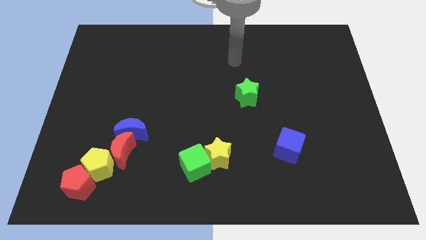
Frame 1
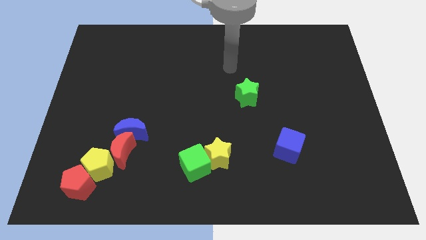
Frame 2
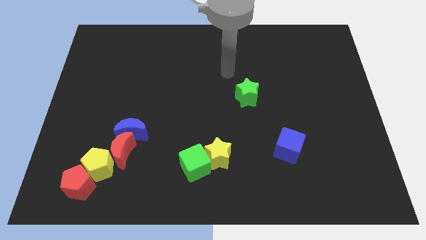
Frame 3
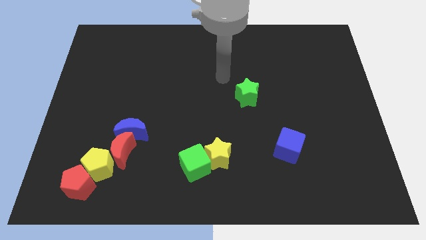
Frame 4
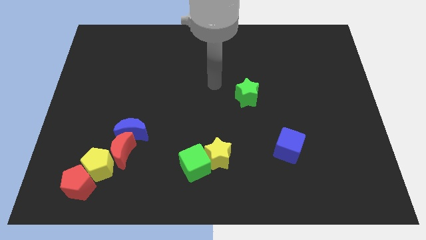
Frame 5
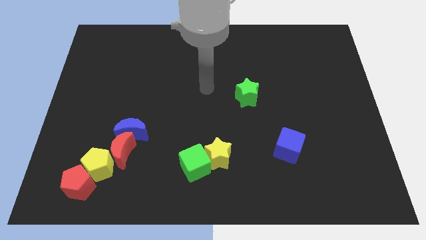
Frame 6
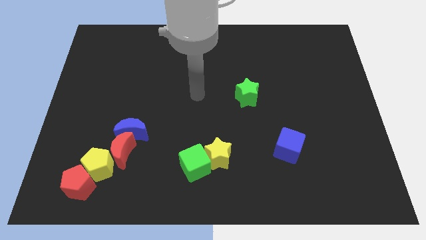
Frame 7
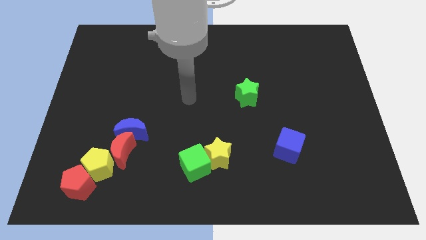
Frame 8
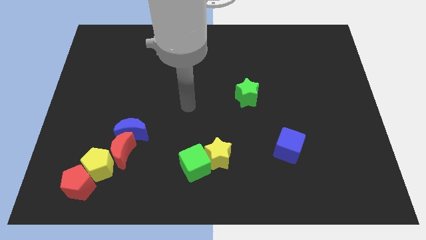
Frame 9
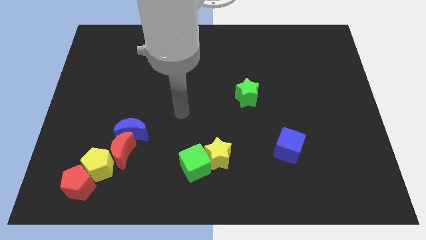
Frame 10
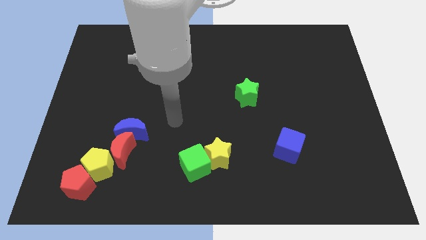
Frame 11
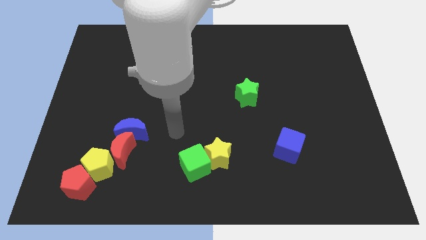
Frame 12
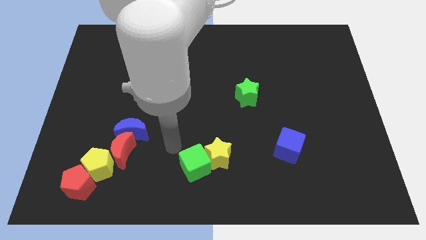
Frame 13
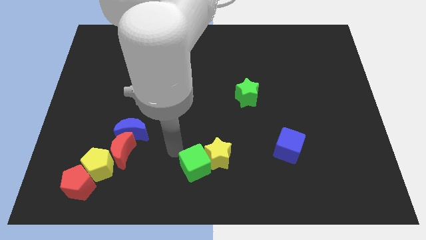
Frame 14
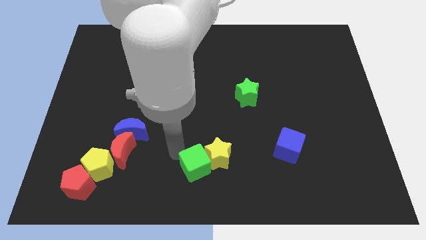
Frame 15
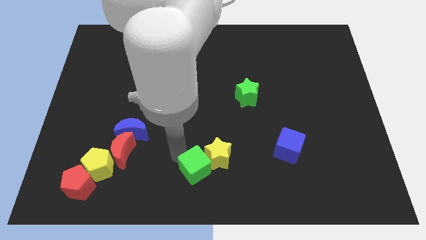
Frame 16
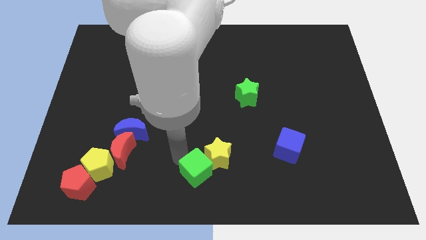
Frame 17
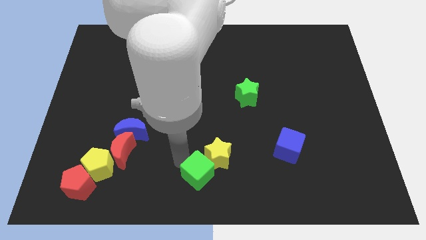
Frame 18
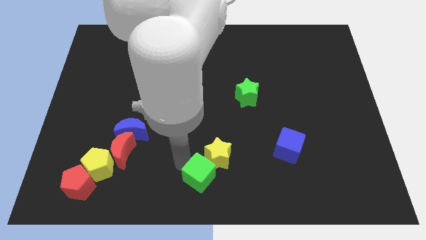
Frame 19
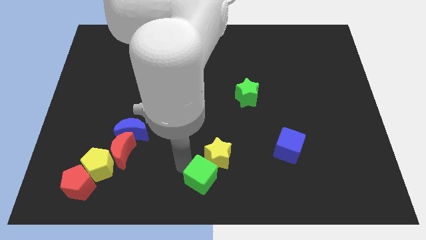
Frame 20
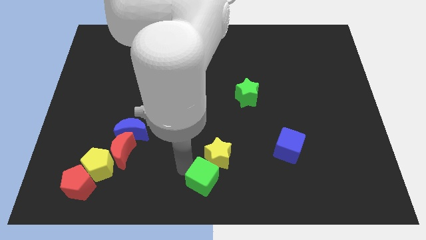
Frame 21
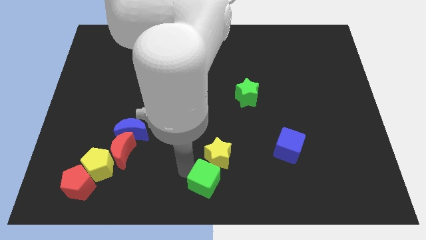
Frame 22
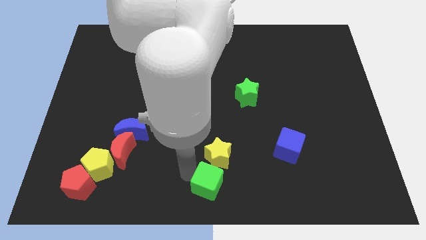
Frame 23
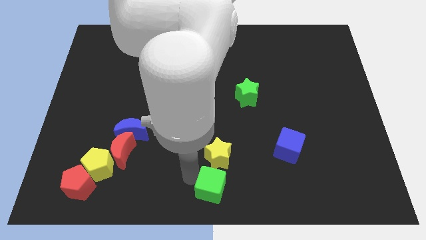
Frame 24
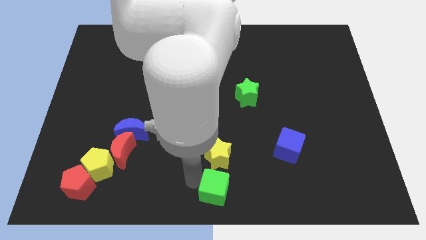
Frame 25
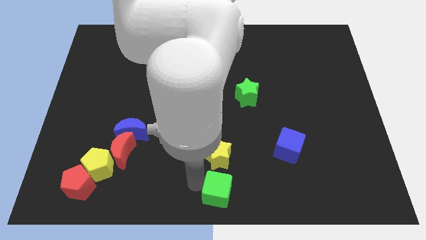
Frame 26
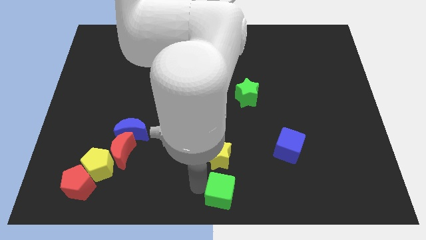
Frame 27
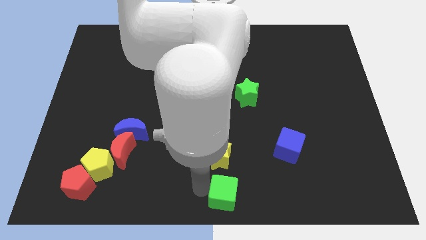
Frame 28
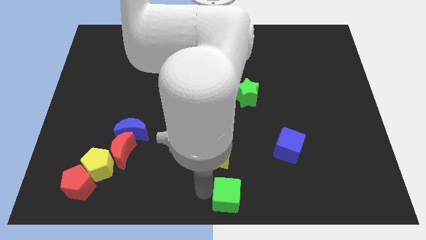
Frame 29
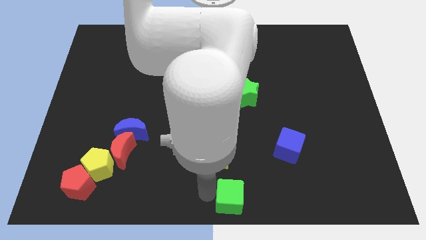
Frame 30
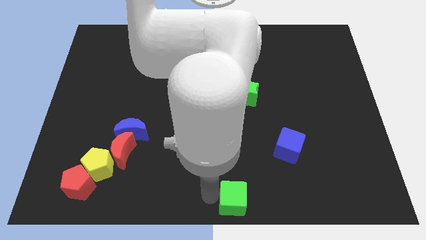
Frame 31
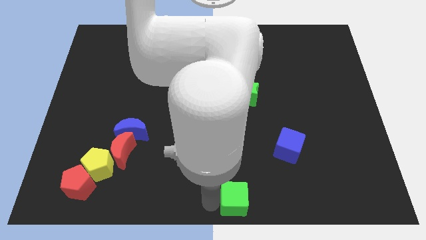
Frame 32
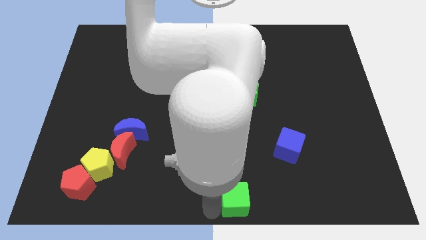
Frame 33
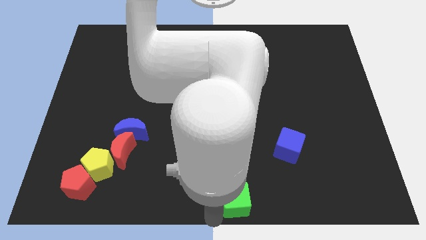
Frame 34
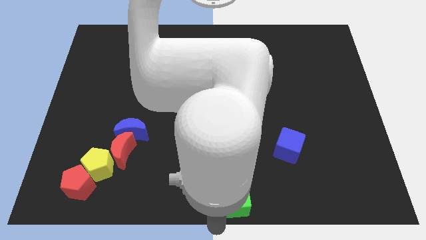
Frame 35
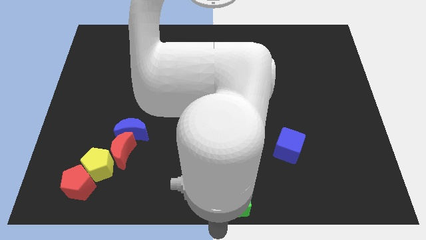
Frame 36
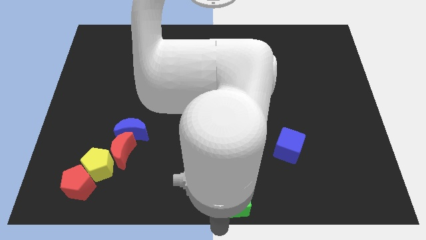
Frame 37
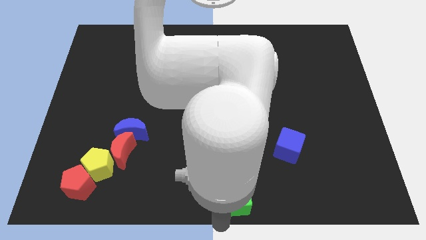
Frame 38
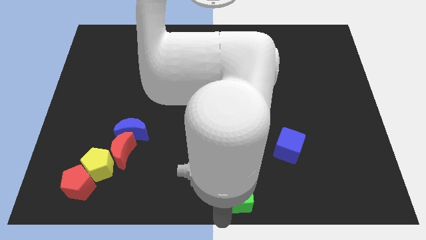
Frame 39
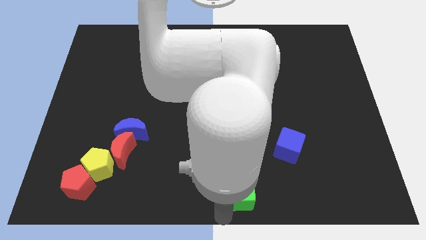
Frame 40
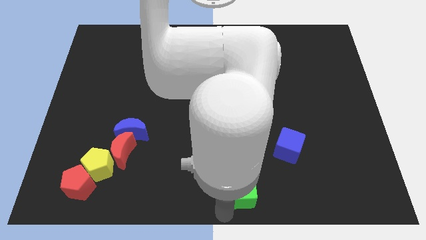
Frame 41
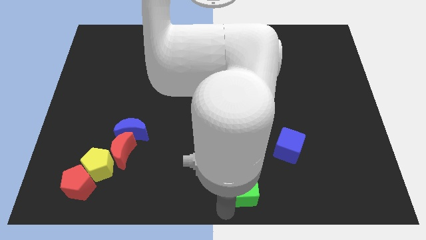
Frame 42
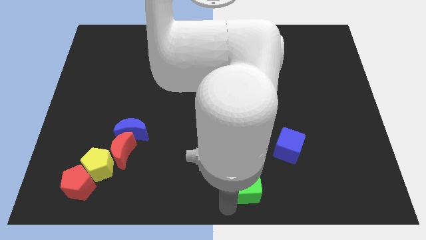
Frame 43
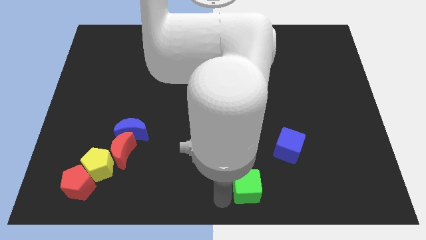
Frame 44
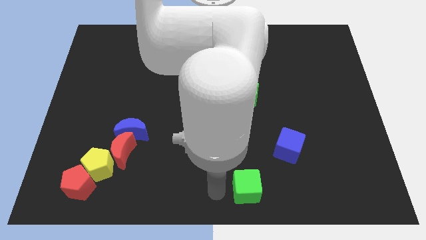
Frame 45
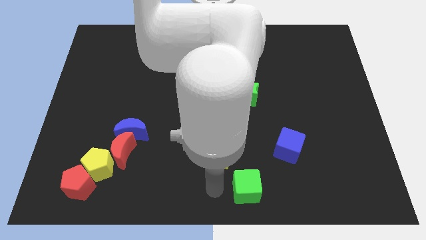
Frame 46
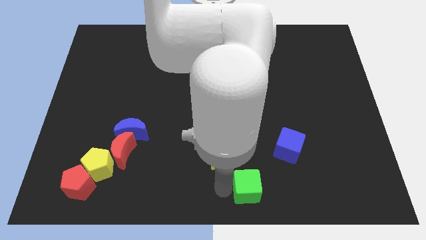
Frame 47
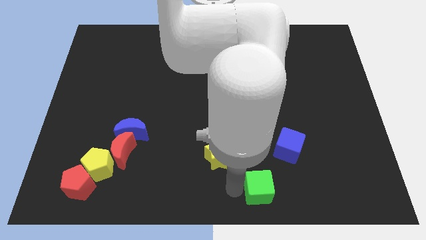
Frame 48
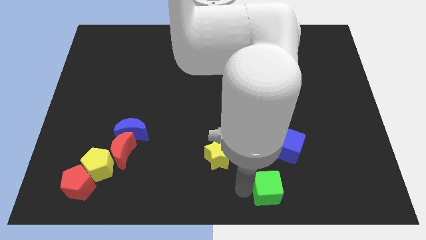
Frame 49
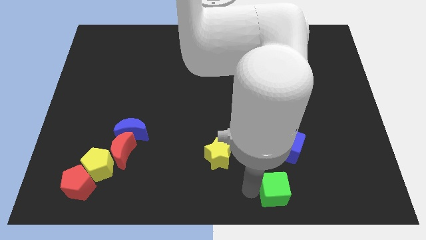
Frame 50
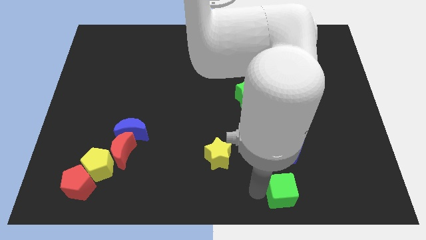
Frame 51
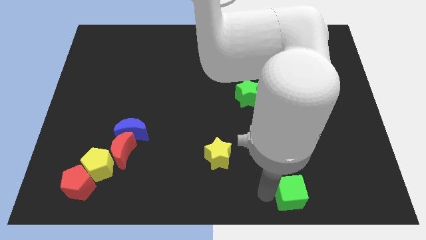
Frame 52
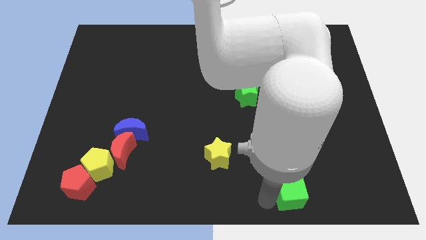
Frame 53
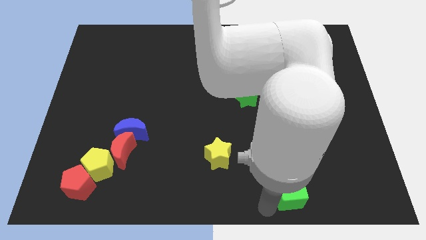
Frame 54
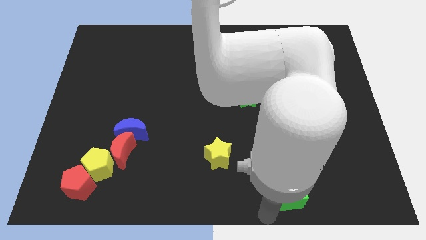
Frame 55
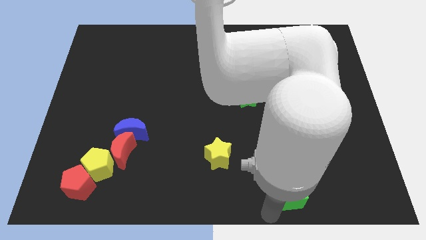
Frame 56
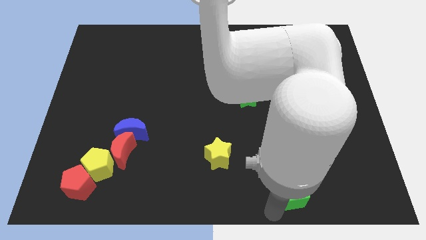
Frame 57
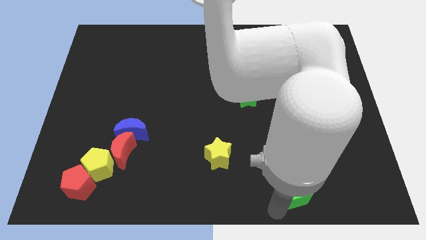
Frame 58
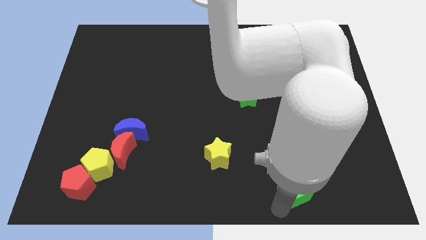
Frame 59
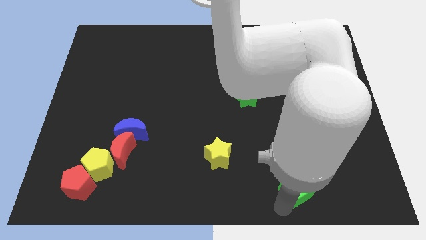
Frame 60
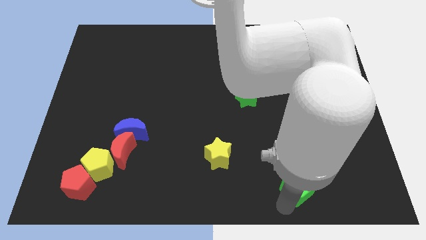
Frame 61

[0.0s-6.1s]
slide the green cube to the right

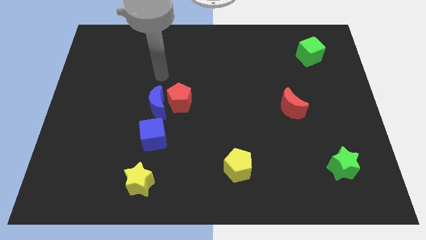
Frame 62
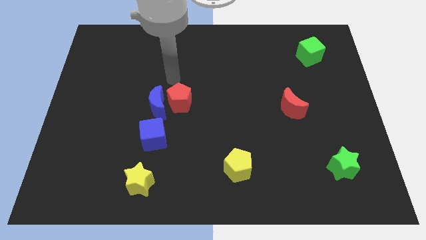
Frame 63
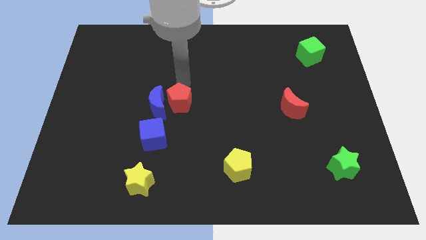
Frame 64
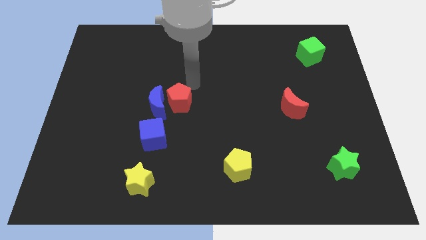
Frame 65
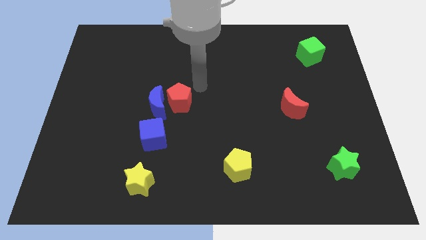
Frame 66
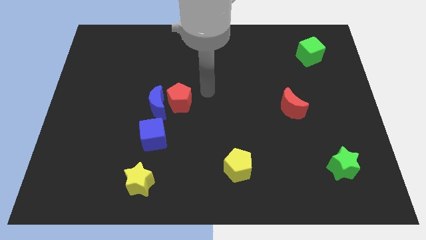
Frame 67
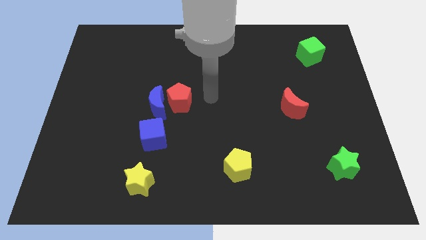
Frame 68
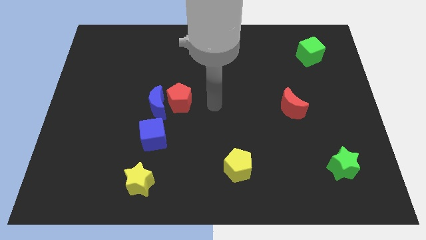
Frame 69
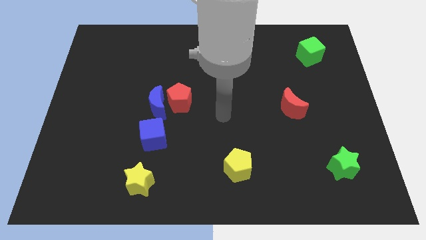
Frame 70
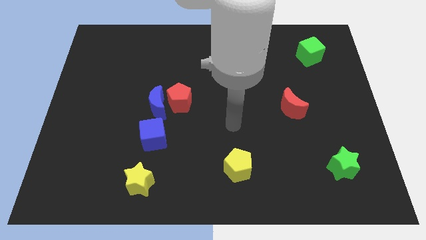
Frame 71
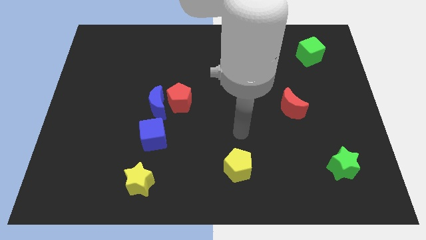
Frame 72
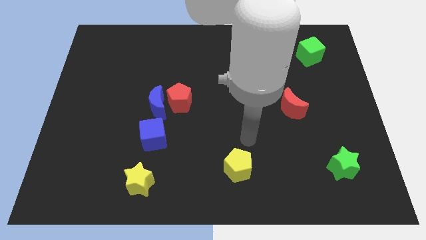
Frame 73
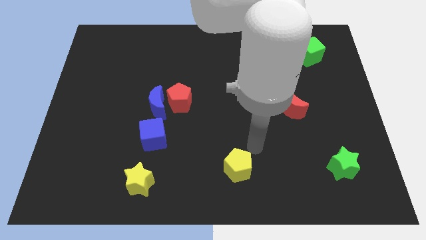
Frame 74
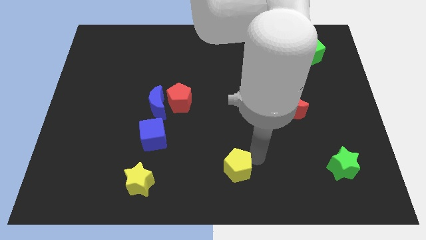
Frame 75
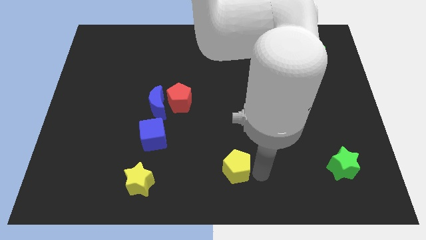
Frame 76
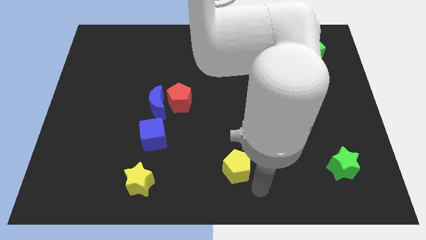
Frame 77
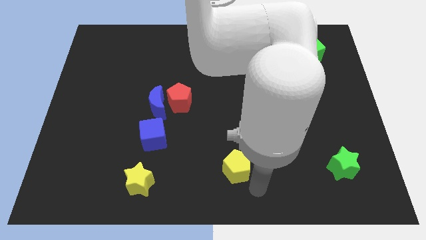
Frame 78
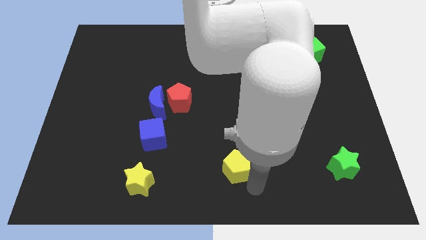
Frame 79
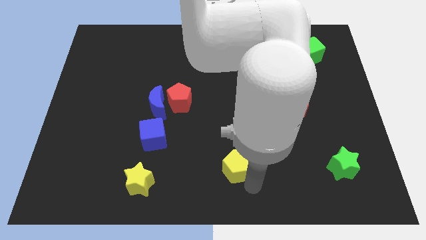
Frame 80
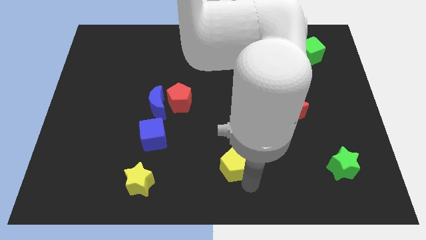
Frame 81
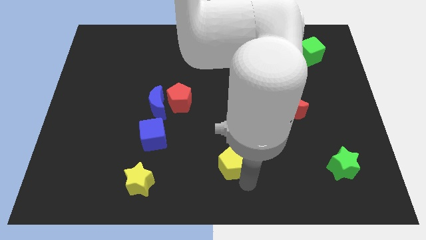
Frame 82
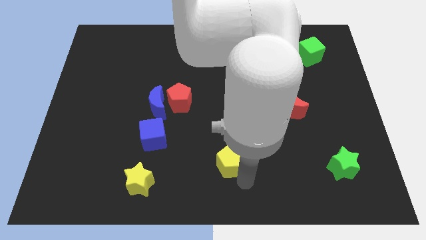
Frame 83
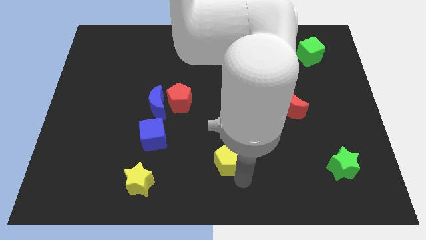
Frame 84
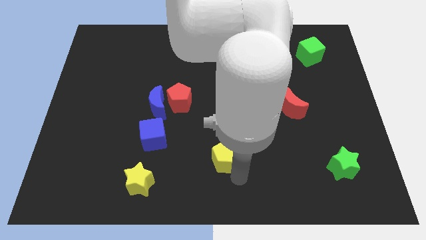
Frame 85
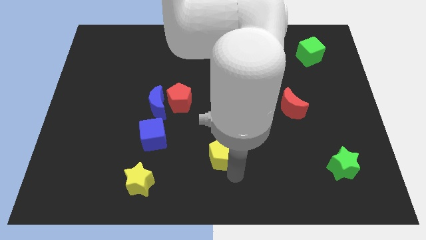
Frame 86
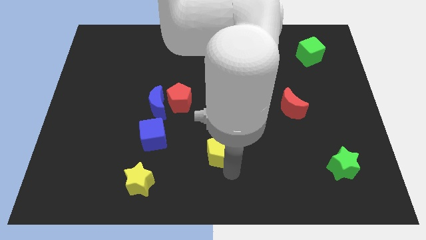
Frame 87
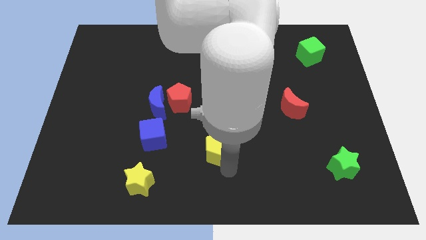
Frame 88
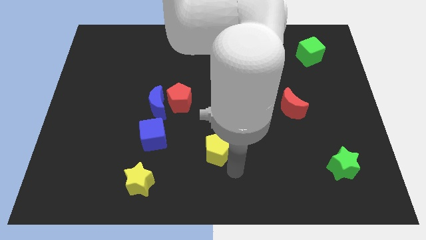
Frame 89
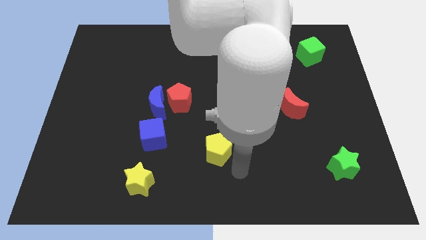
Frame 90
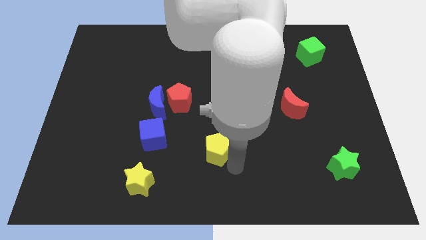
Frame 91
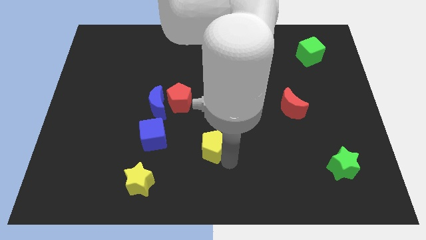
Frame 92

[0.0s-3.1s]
slide the yellow pentagon up and then left a little
